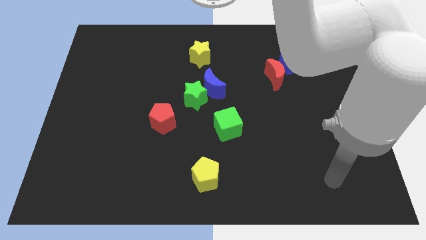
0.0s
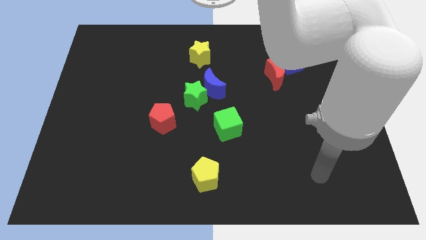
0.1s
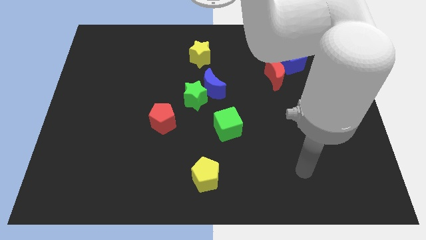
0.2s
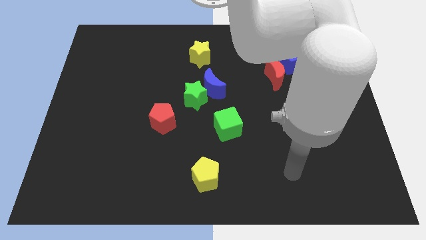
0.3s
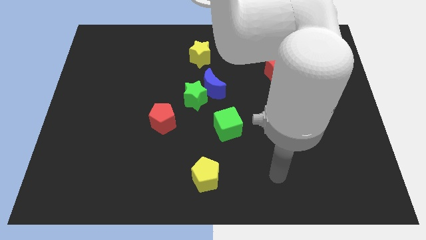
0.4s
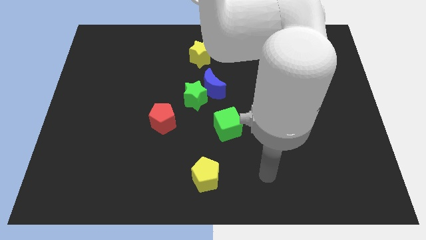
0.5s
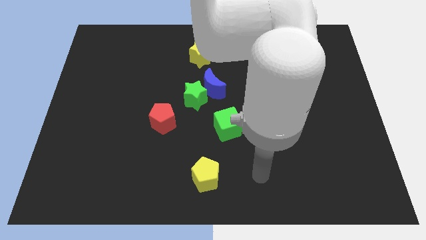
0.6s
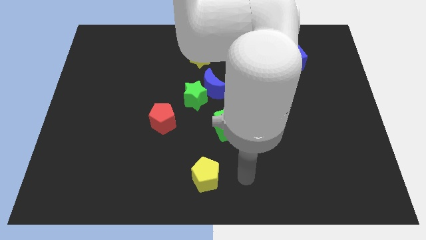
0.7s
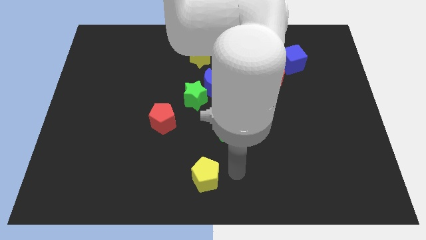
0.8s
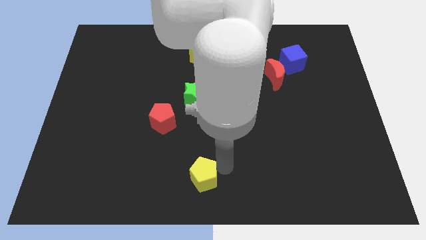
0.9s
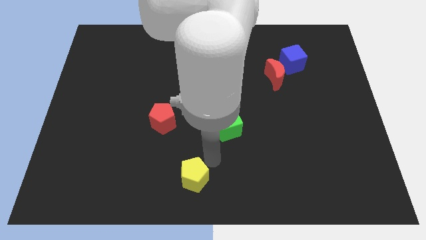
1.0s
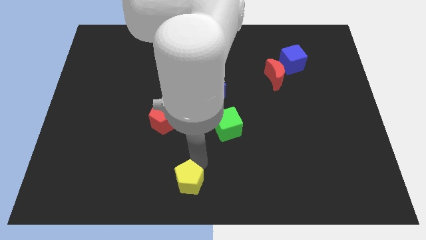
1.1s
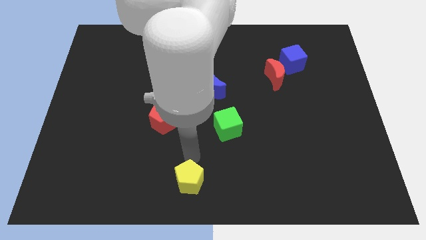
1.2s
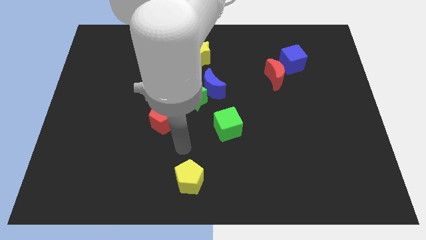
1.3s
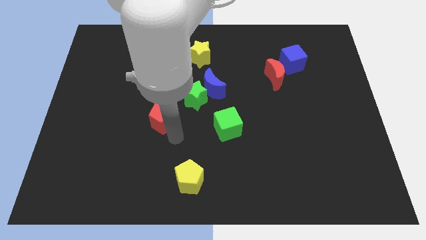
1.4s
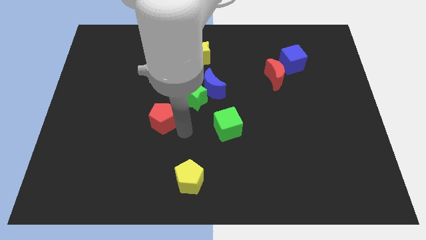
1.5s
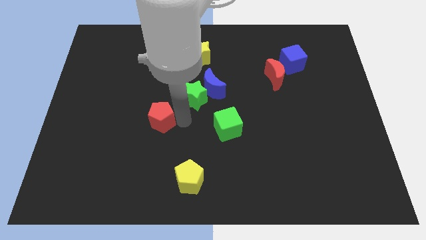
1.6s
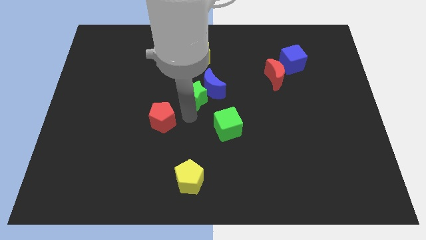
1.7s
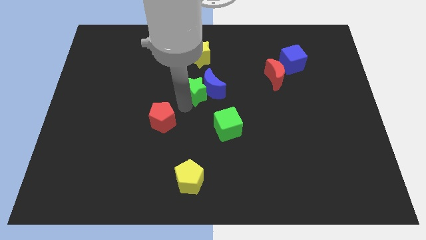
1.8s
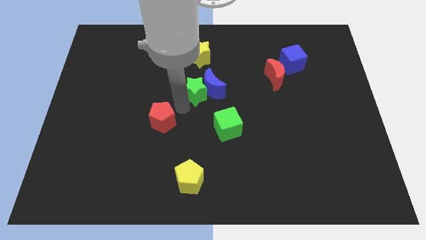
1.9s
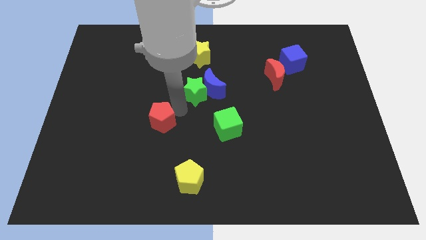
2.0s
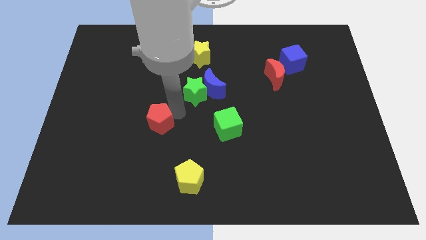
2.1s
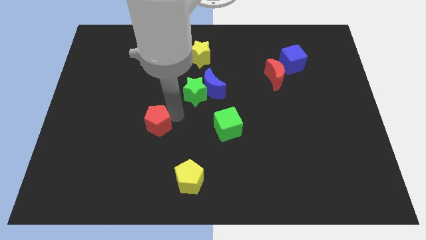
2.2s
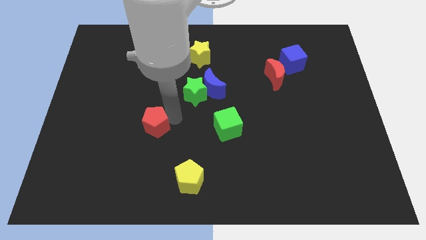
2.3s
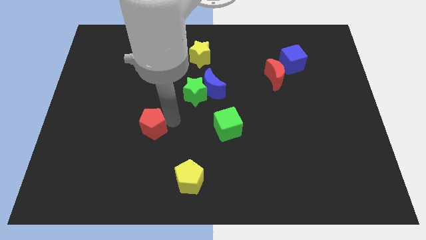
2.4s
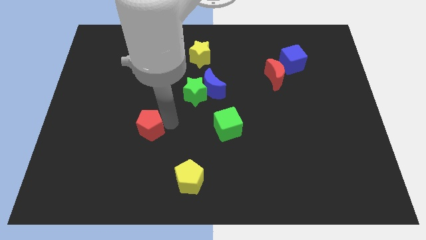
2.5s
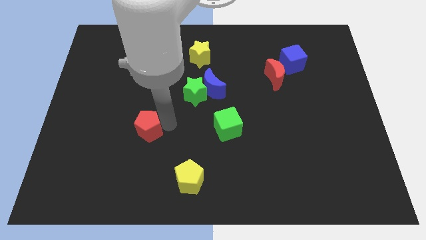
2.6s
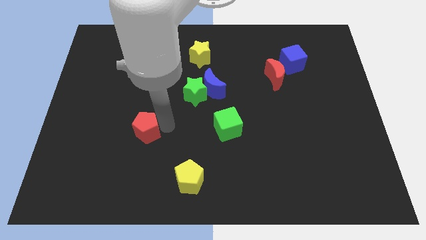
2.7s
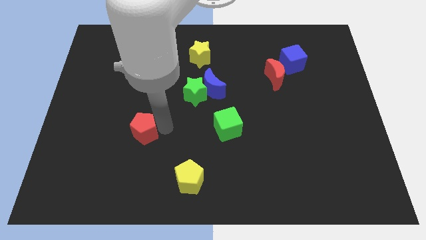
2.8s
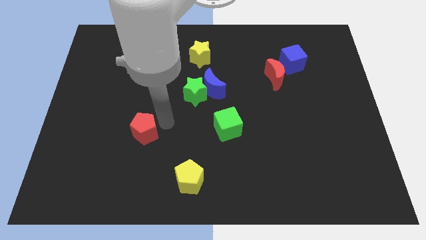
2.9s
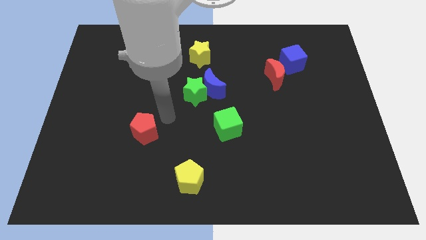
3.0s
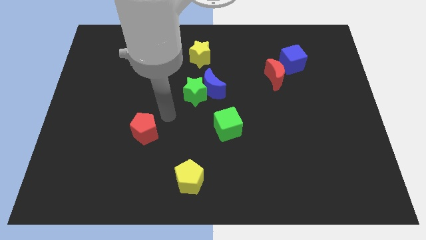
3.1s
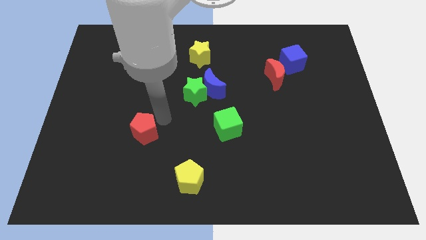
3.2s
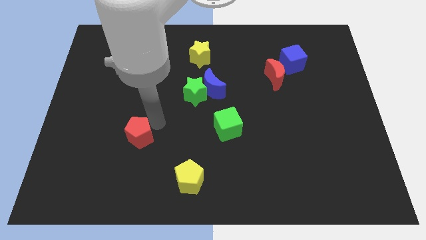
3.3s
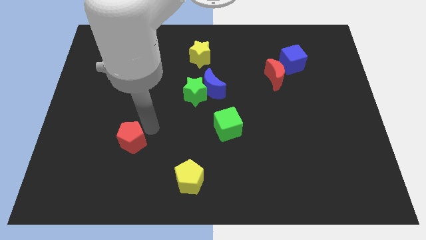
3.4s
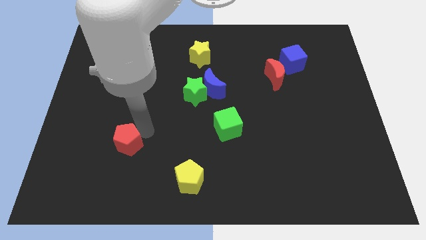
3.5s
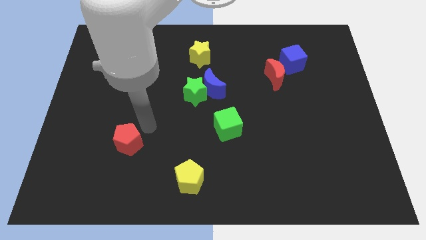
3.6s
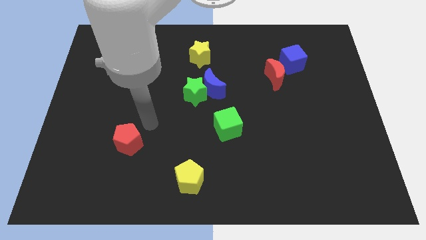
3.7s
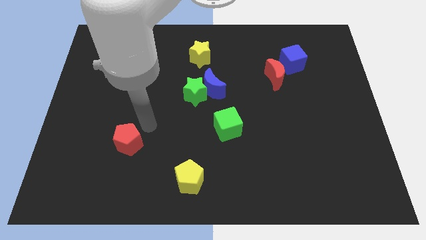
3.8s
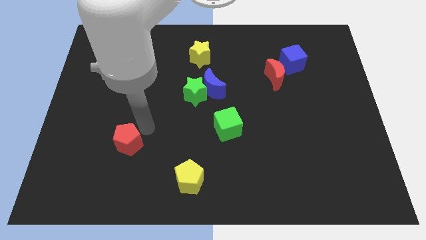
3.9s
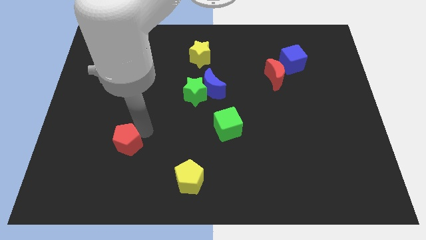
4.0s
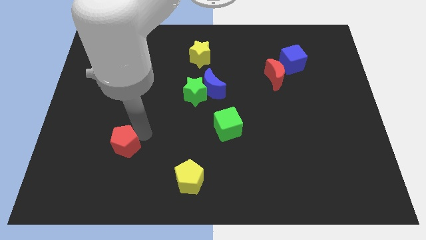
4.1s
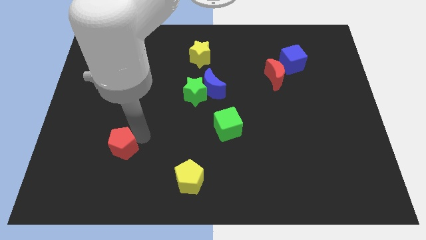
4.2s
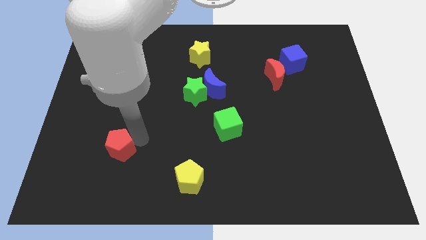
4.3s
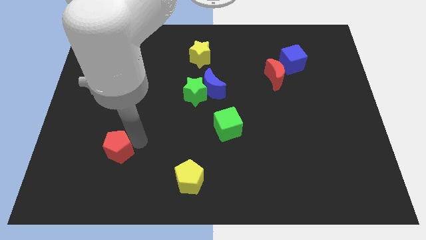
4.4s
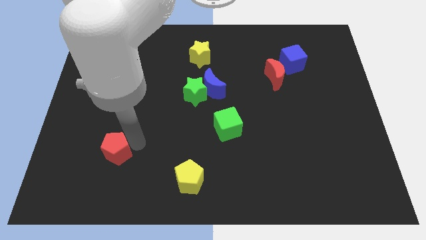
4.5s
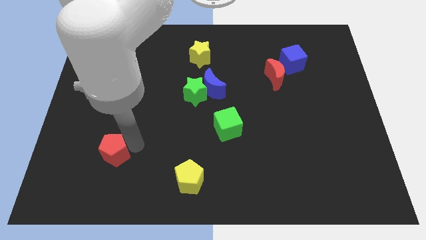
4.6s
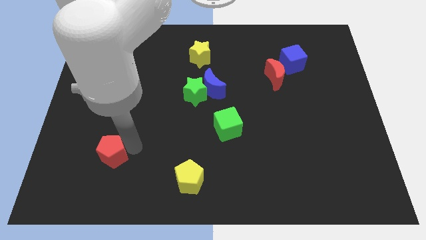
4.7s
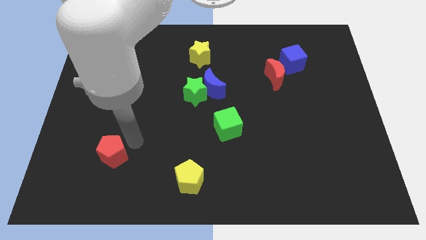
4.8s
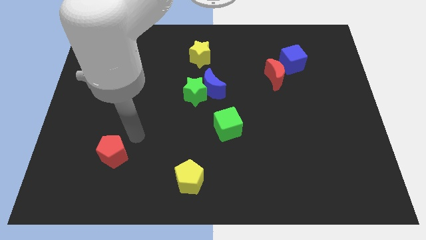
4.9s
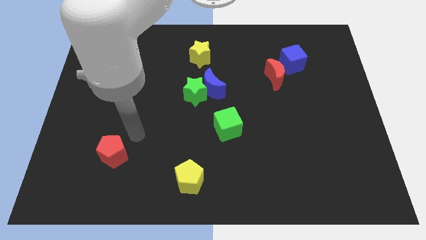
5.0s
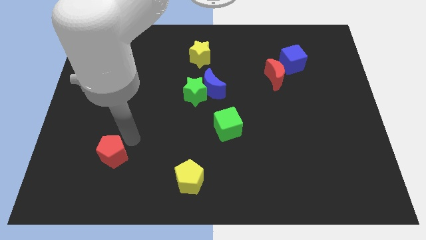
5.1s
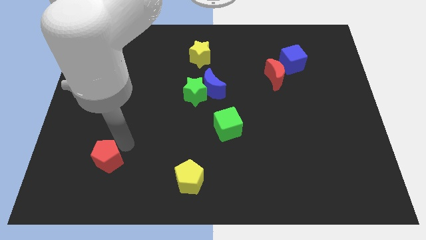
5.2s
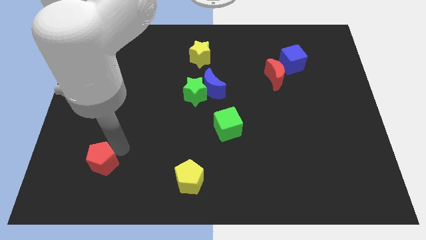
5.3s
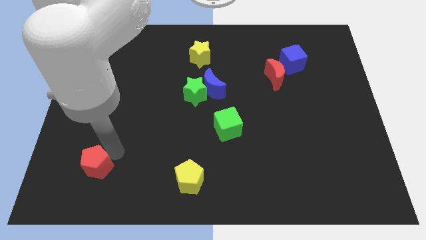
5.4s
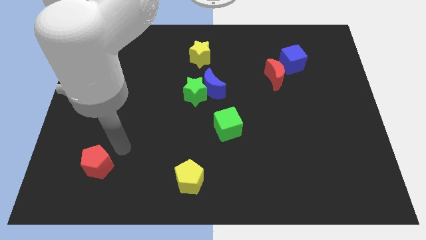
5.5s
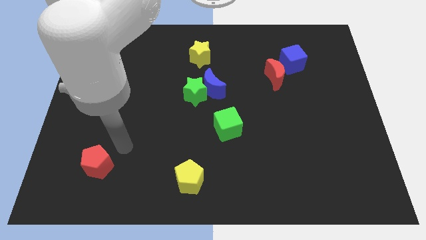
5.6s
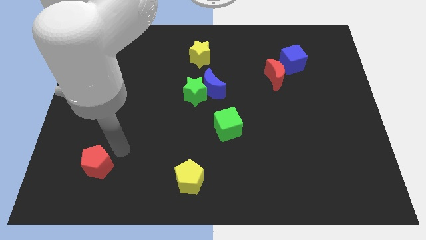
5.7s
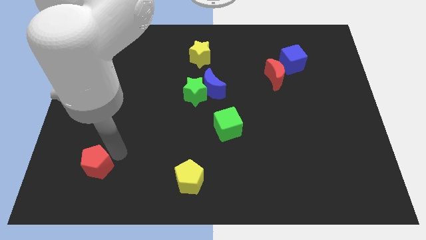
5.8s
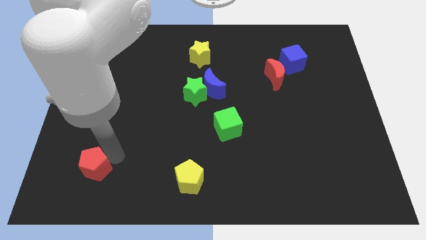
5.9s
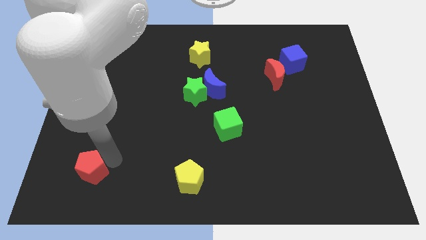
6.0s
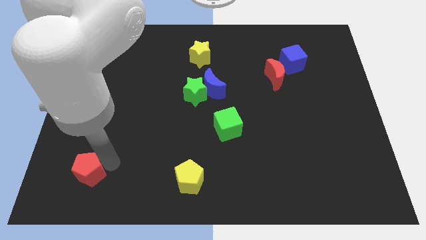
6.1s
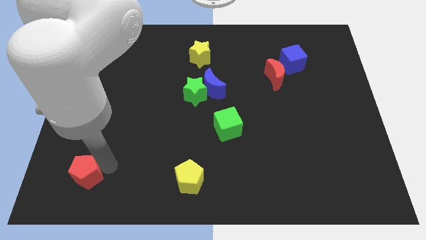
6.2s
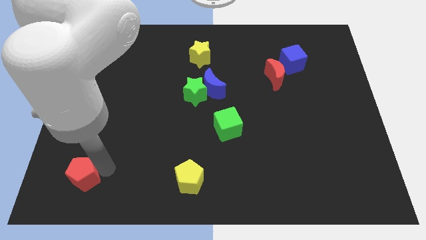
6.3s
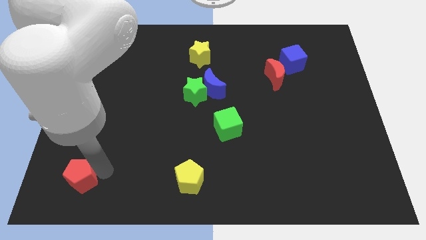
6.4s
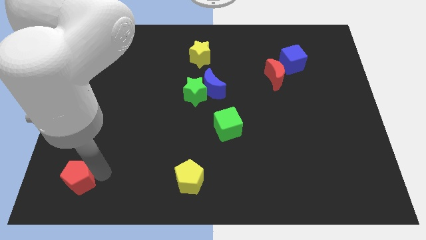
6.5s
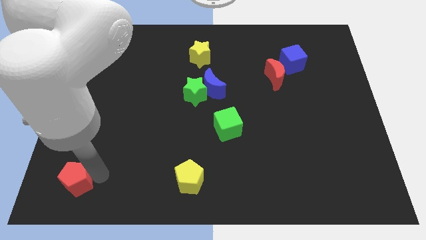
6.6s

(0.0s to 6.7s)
put the red pentagon to the bottom left
